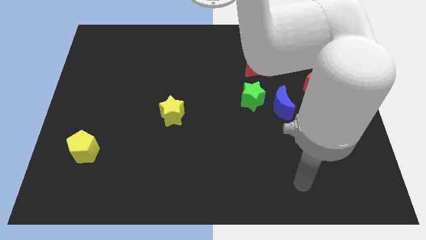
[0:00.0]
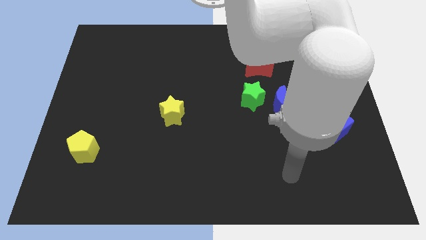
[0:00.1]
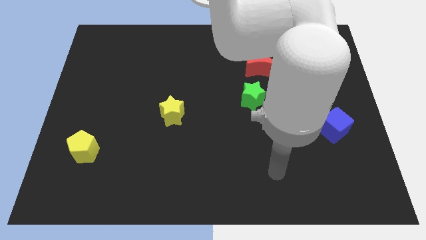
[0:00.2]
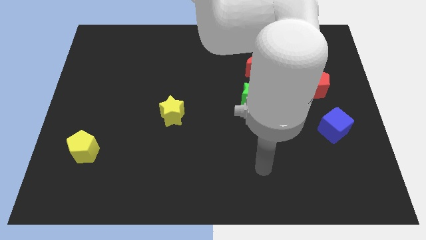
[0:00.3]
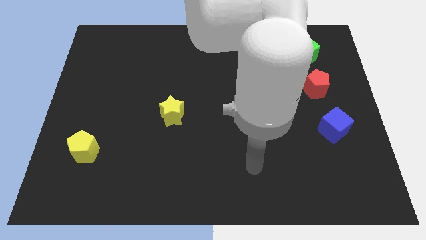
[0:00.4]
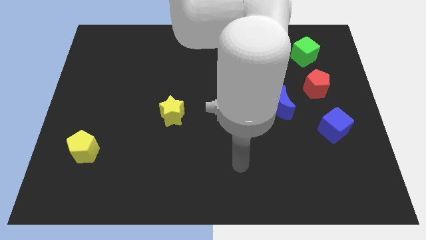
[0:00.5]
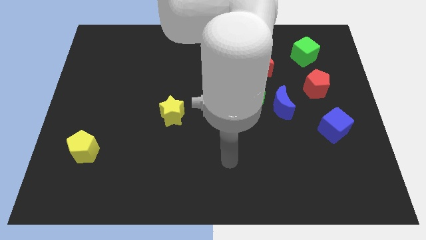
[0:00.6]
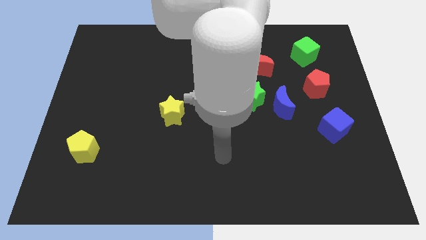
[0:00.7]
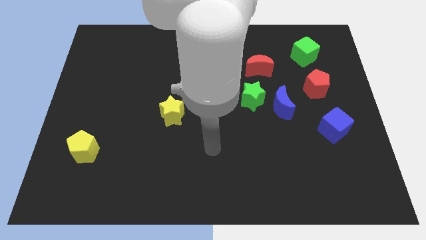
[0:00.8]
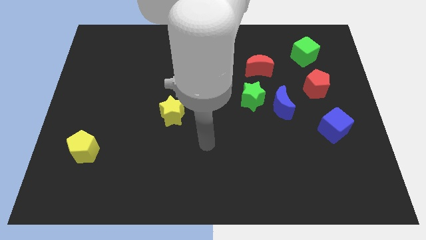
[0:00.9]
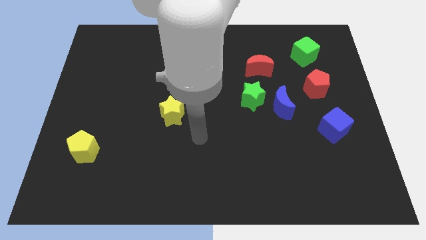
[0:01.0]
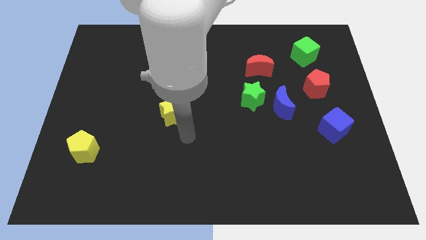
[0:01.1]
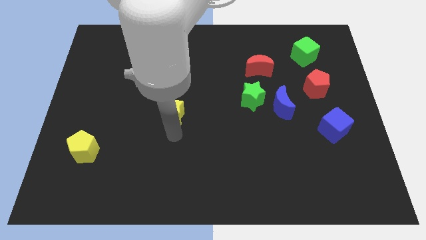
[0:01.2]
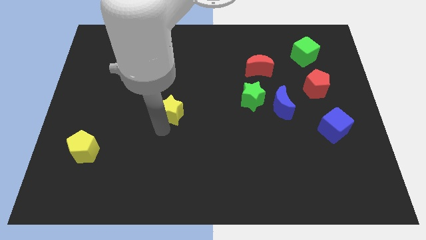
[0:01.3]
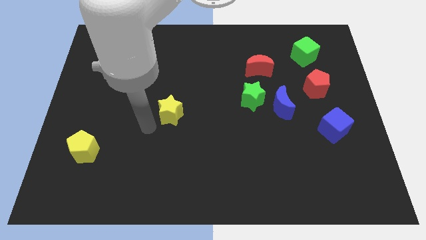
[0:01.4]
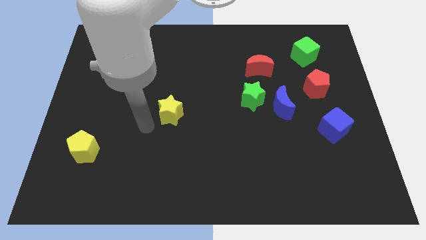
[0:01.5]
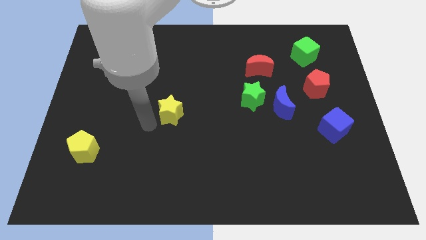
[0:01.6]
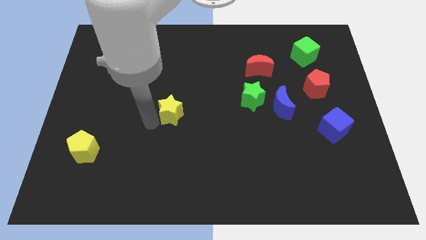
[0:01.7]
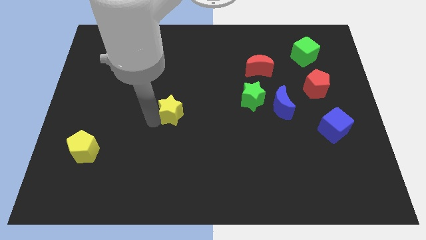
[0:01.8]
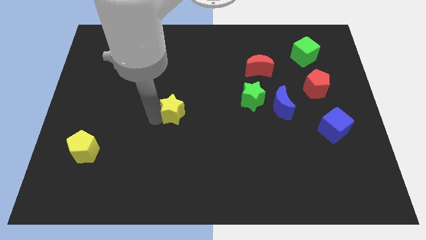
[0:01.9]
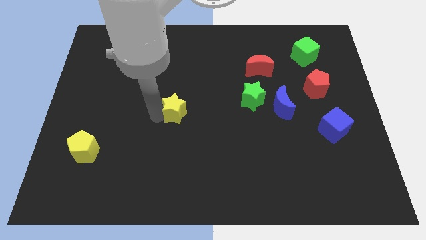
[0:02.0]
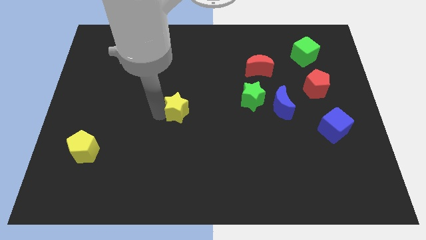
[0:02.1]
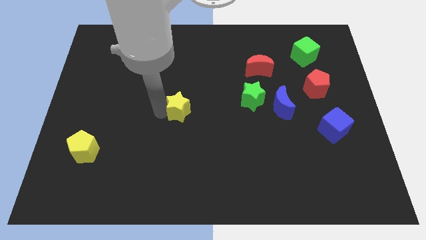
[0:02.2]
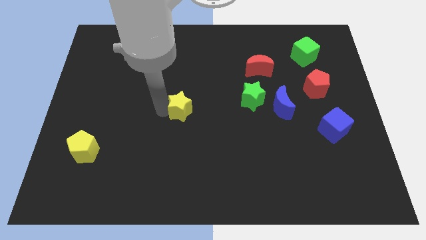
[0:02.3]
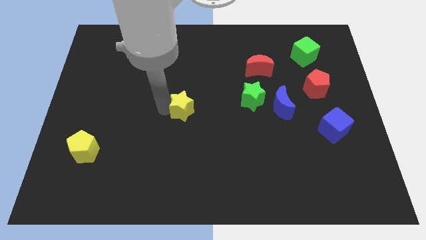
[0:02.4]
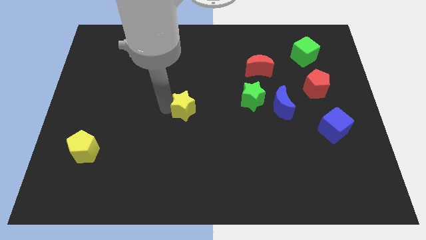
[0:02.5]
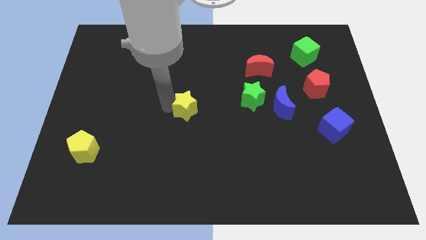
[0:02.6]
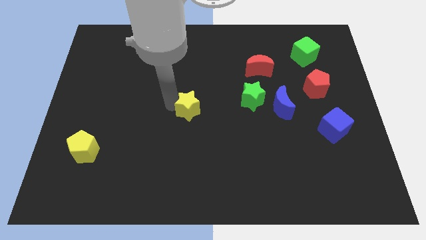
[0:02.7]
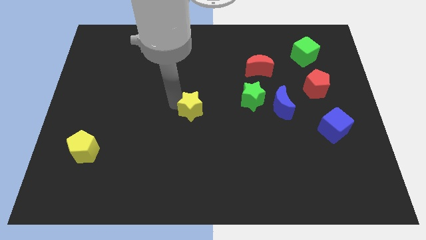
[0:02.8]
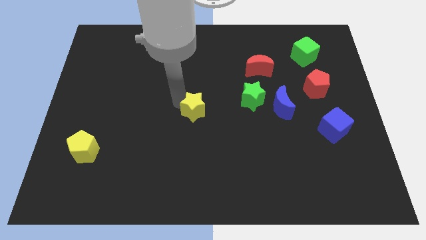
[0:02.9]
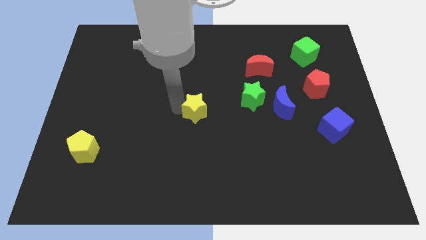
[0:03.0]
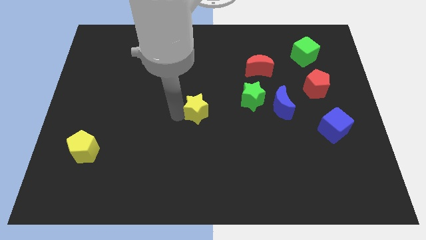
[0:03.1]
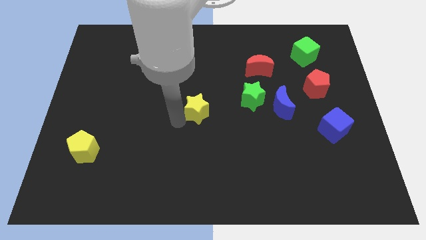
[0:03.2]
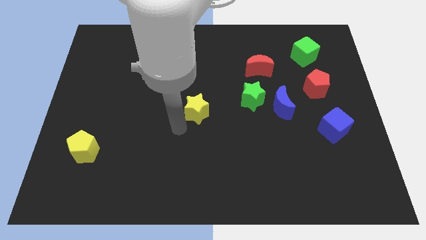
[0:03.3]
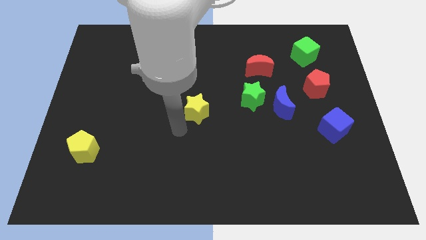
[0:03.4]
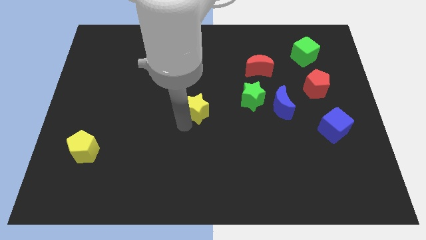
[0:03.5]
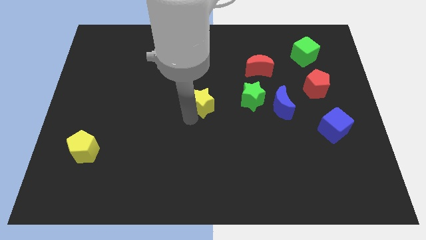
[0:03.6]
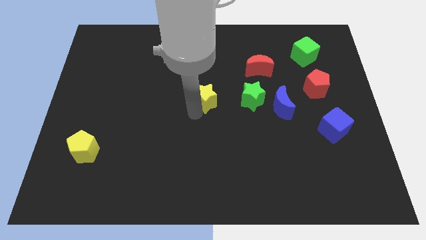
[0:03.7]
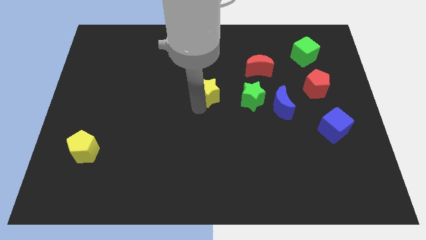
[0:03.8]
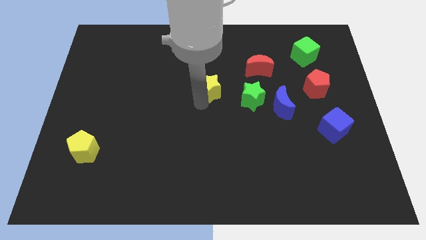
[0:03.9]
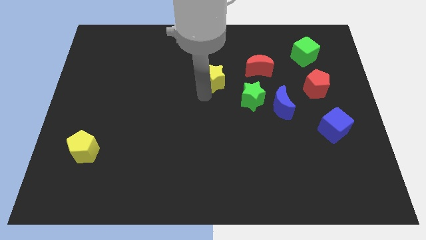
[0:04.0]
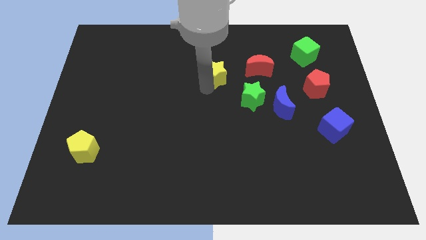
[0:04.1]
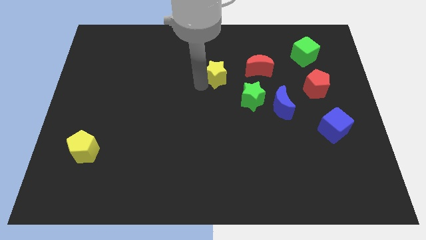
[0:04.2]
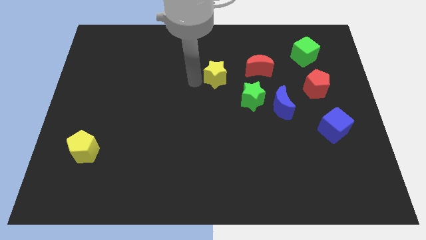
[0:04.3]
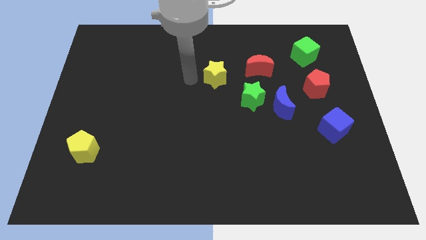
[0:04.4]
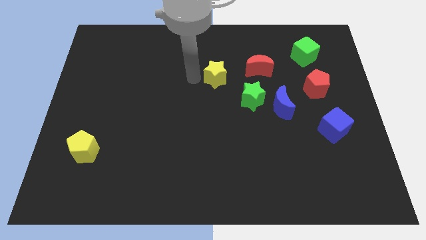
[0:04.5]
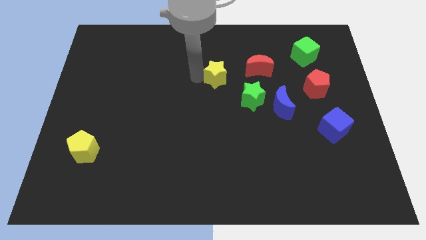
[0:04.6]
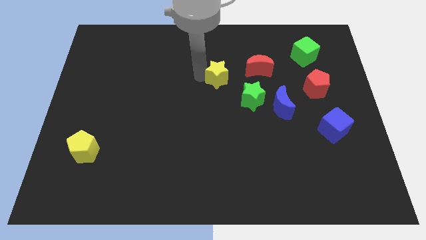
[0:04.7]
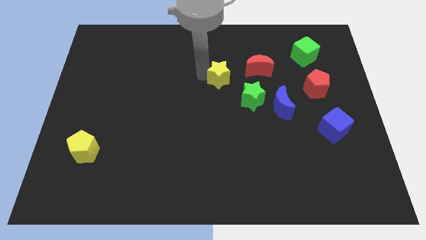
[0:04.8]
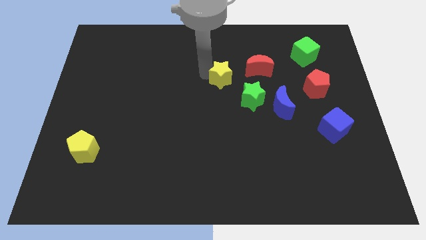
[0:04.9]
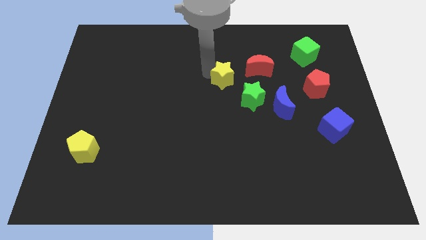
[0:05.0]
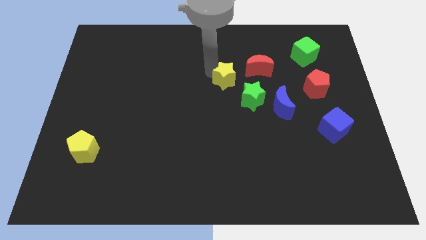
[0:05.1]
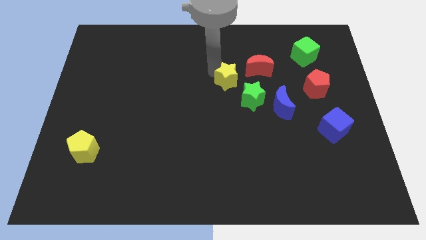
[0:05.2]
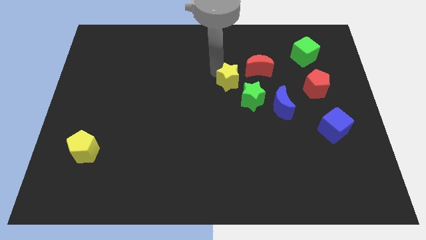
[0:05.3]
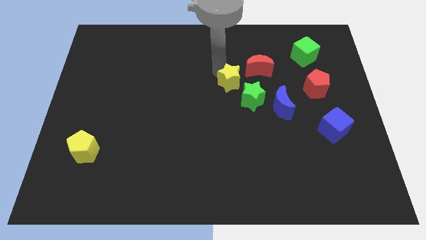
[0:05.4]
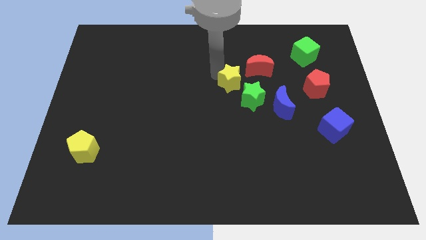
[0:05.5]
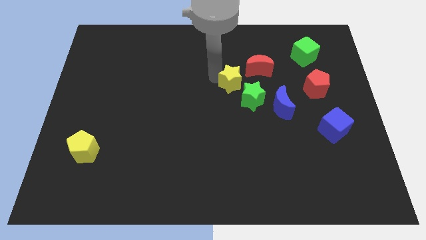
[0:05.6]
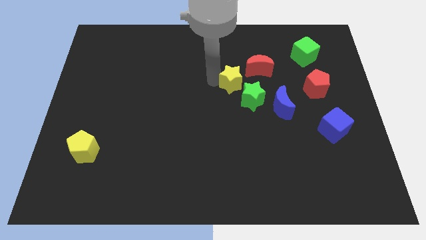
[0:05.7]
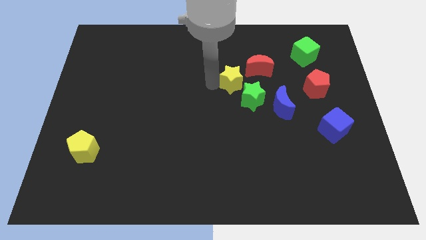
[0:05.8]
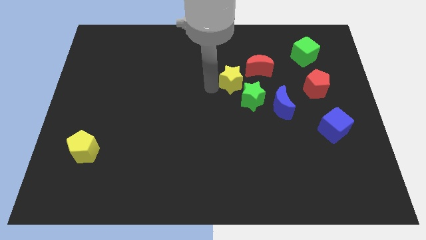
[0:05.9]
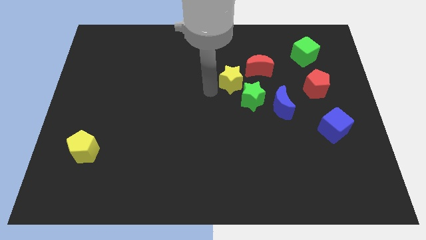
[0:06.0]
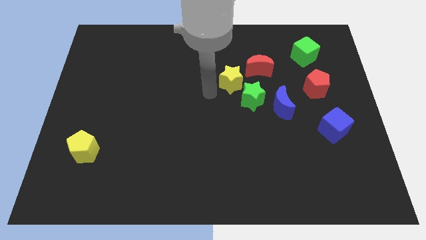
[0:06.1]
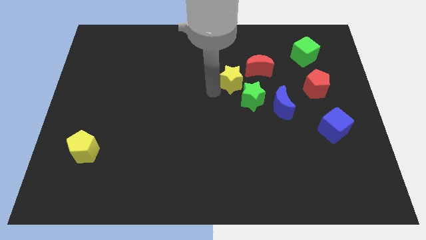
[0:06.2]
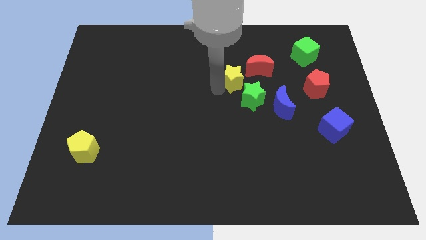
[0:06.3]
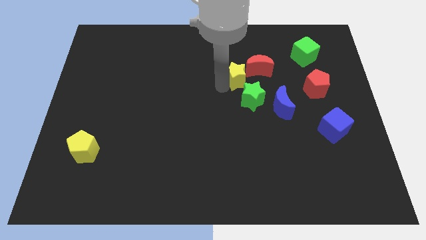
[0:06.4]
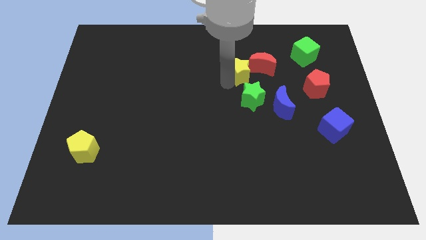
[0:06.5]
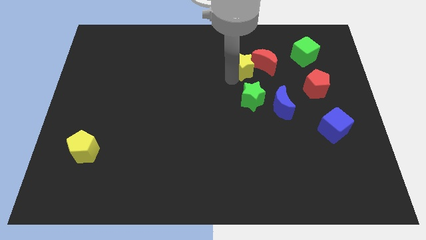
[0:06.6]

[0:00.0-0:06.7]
move the yellow star towards the red moon

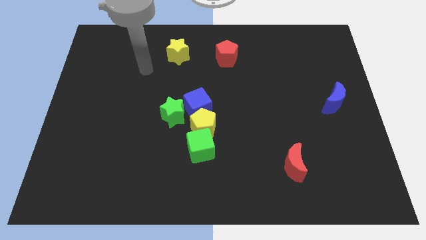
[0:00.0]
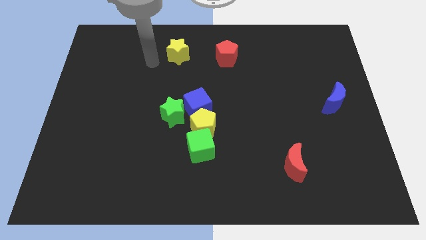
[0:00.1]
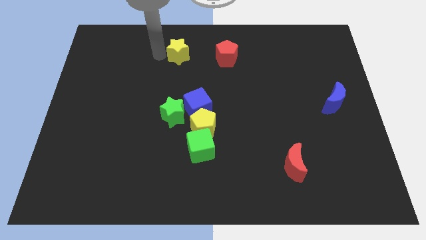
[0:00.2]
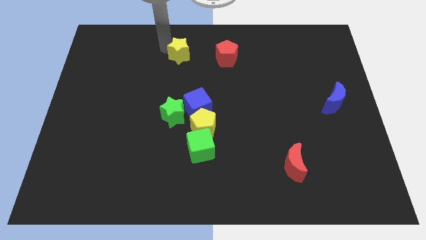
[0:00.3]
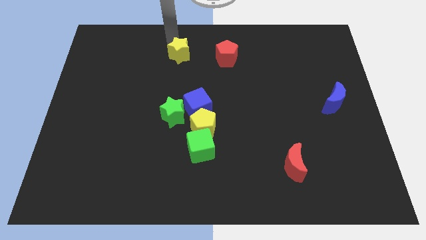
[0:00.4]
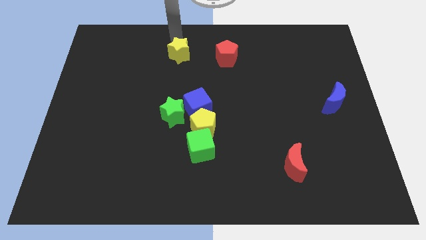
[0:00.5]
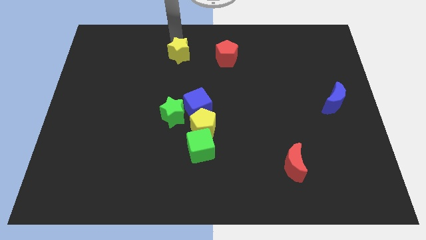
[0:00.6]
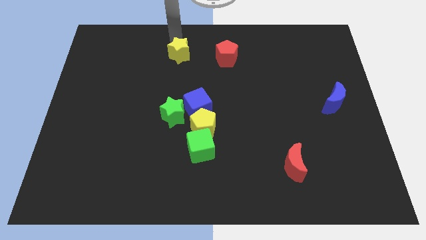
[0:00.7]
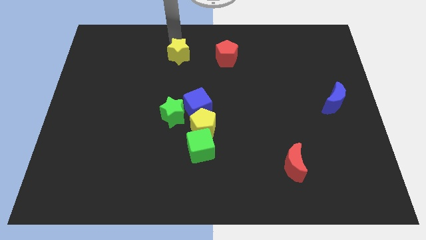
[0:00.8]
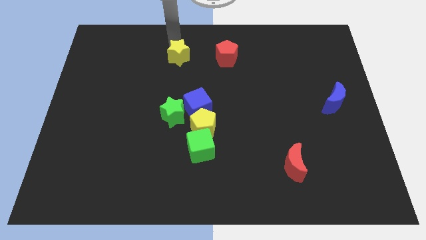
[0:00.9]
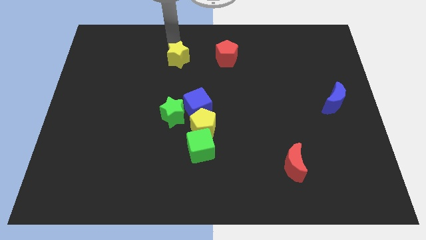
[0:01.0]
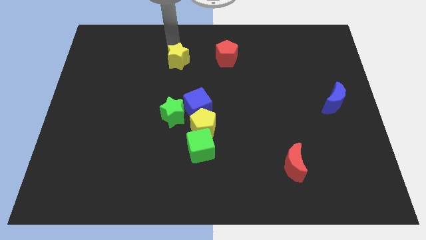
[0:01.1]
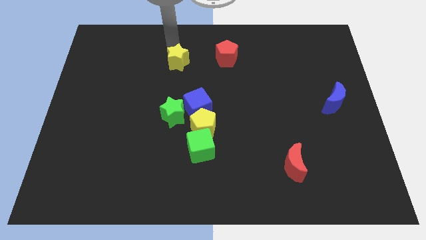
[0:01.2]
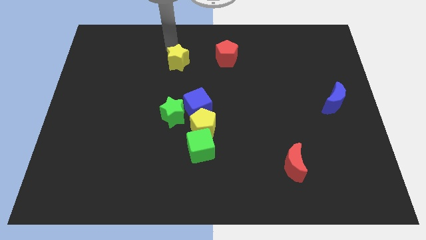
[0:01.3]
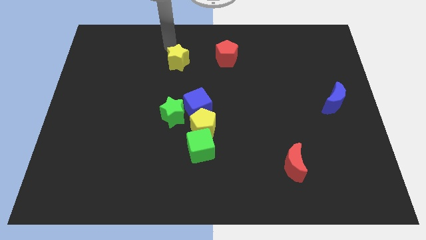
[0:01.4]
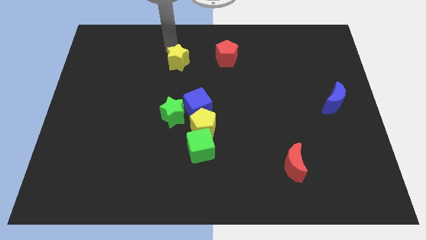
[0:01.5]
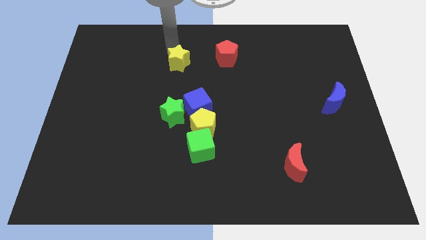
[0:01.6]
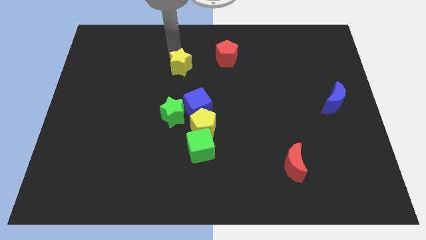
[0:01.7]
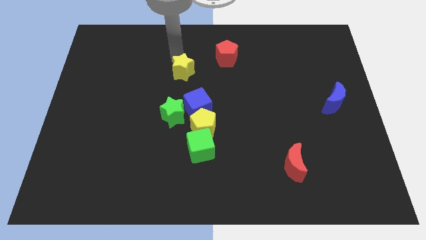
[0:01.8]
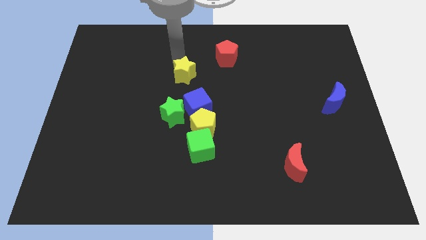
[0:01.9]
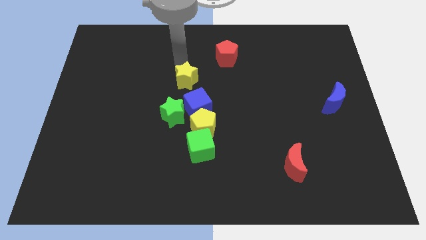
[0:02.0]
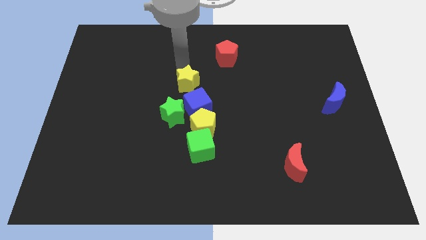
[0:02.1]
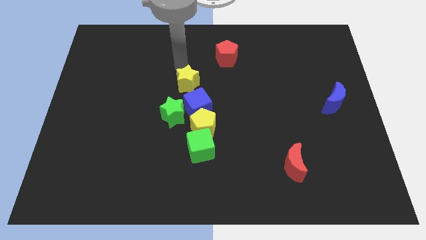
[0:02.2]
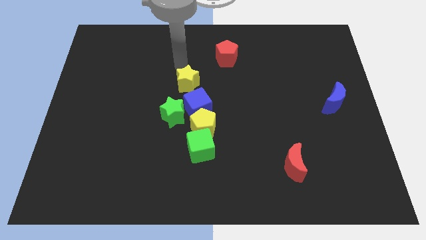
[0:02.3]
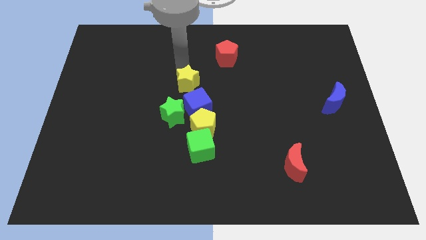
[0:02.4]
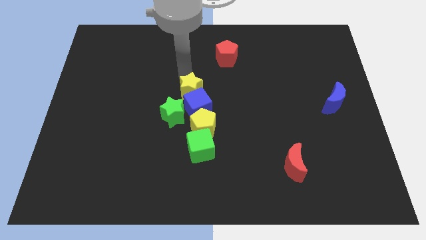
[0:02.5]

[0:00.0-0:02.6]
move the yellow star next to the blue cube
